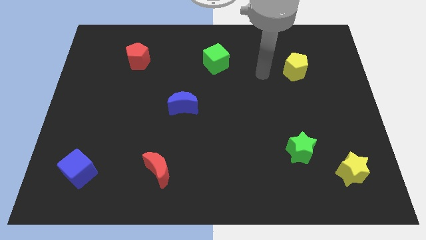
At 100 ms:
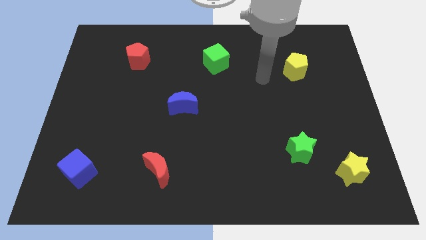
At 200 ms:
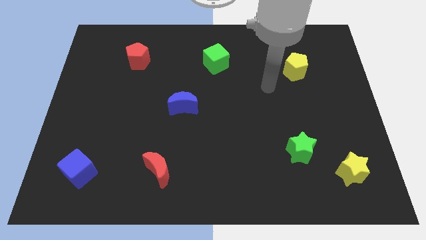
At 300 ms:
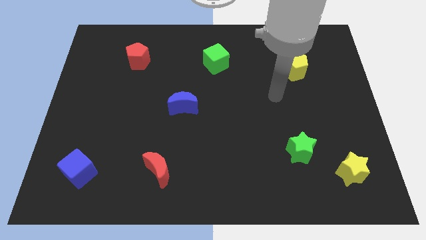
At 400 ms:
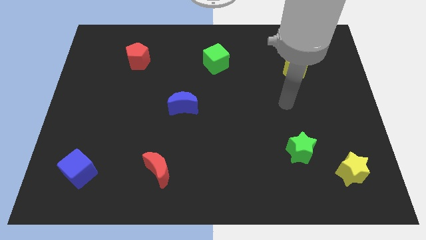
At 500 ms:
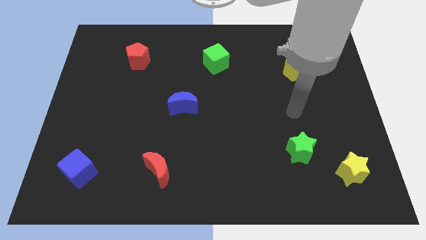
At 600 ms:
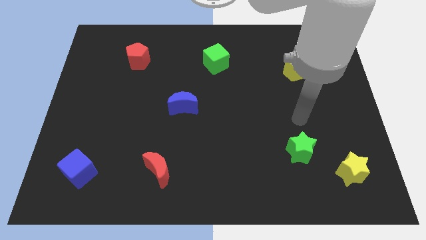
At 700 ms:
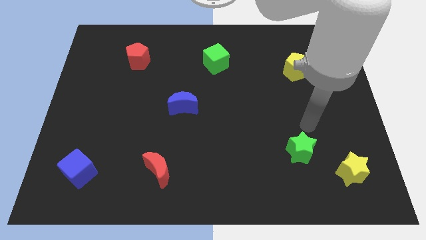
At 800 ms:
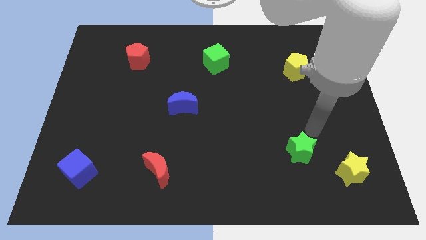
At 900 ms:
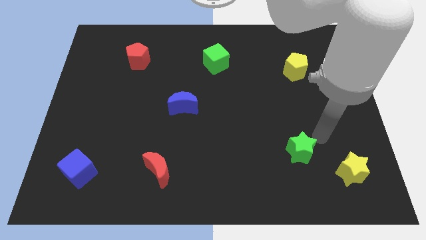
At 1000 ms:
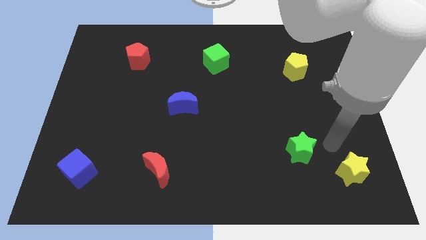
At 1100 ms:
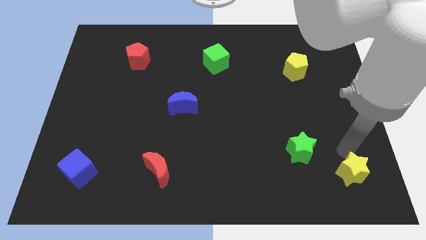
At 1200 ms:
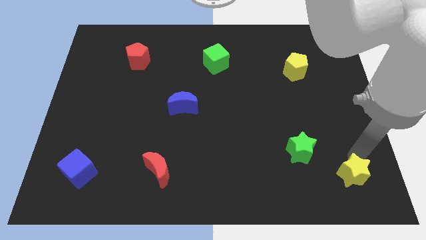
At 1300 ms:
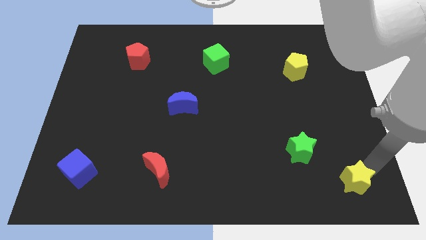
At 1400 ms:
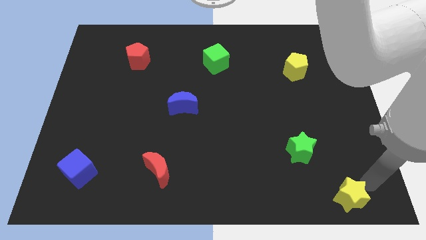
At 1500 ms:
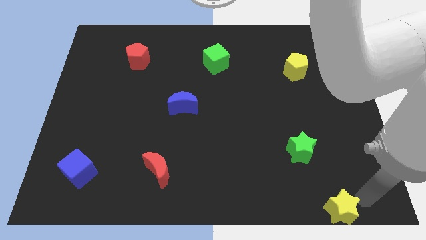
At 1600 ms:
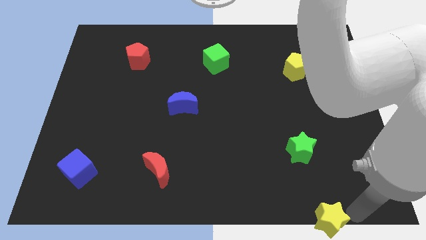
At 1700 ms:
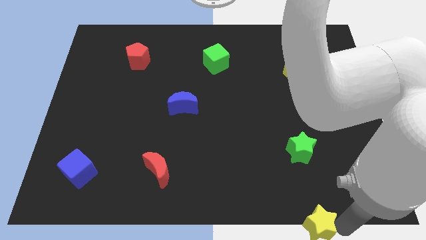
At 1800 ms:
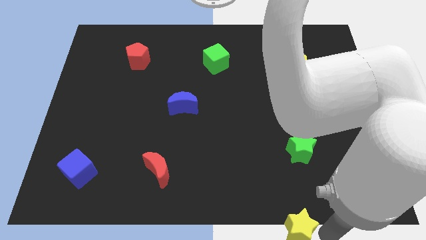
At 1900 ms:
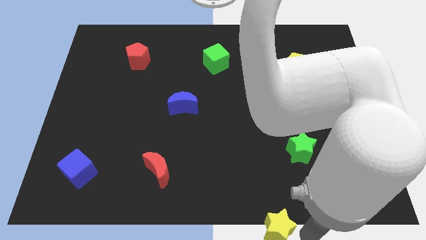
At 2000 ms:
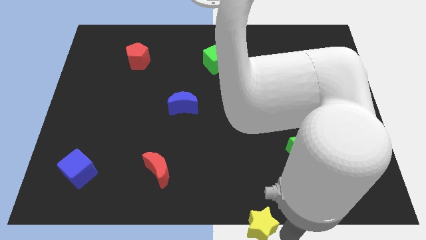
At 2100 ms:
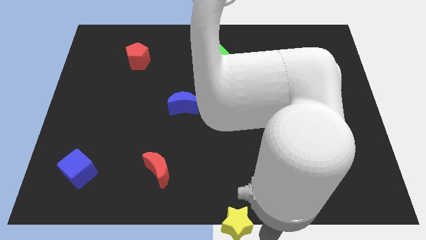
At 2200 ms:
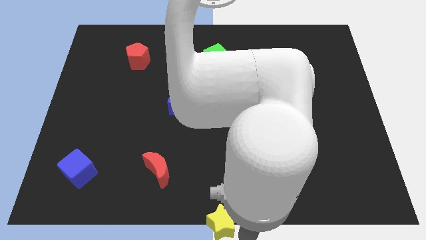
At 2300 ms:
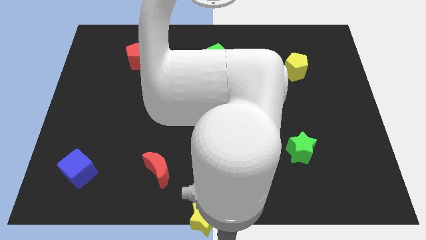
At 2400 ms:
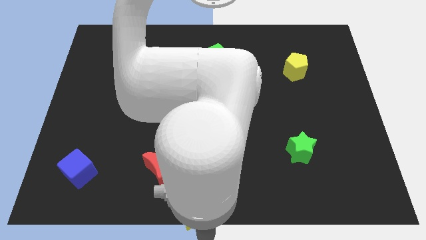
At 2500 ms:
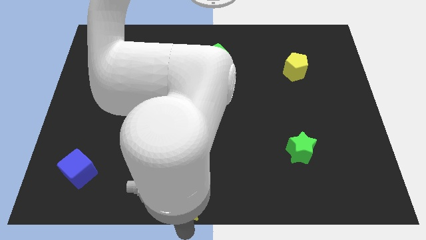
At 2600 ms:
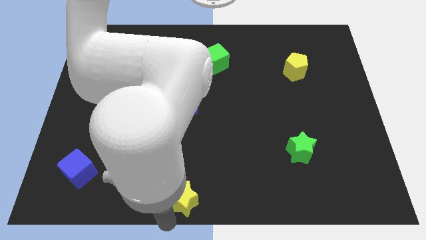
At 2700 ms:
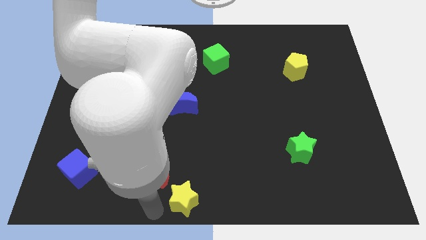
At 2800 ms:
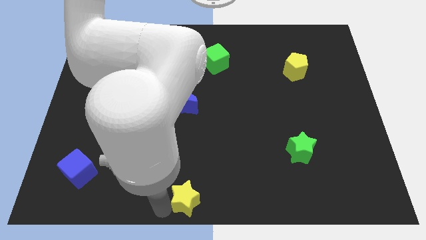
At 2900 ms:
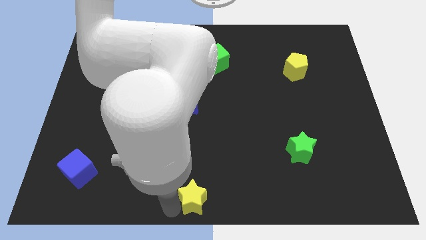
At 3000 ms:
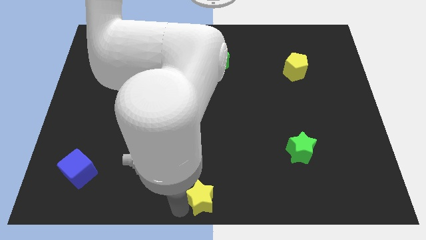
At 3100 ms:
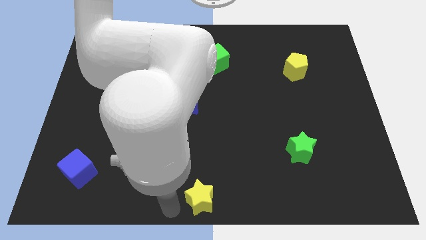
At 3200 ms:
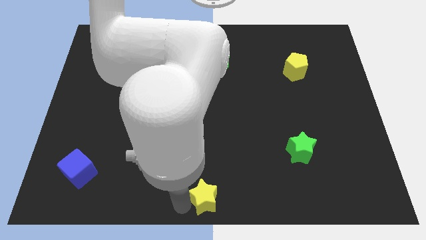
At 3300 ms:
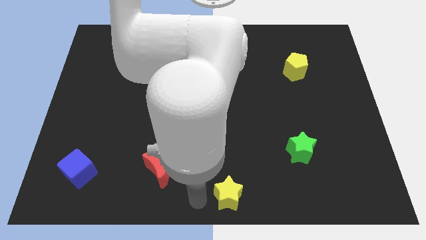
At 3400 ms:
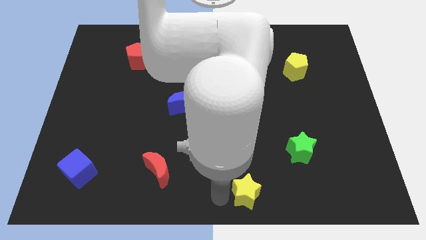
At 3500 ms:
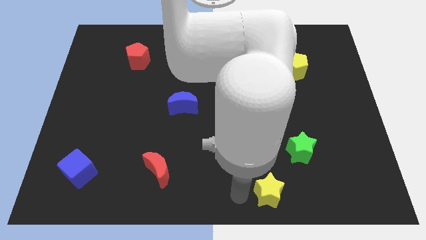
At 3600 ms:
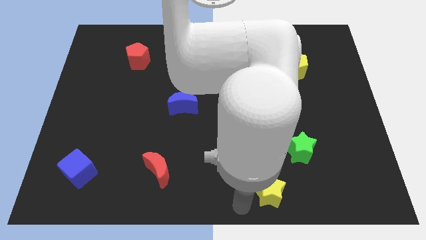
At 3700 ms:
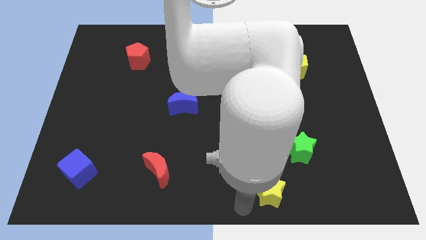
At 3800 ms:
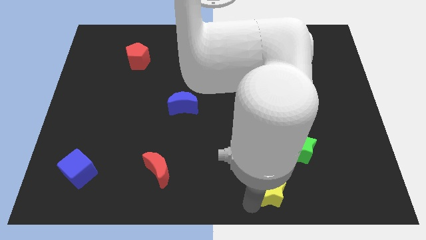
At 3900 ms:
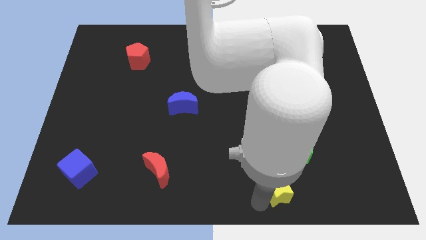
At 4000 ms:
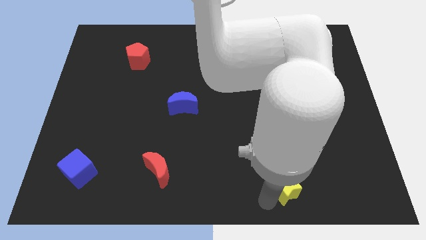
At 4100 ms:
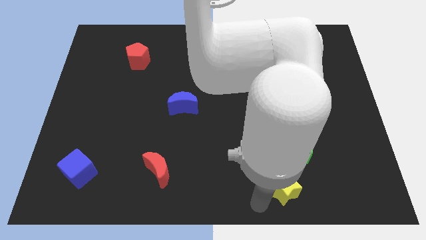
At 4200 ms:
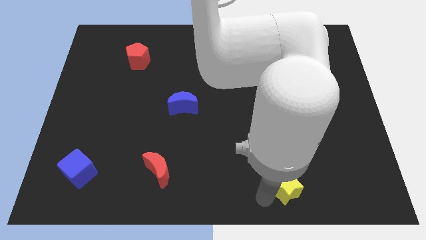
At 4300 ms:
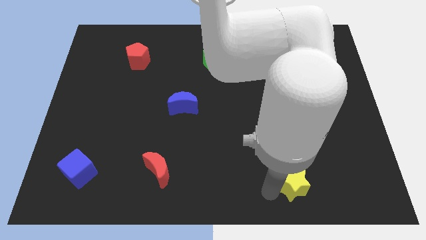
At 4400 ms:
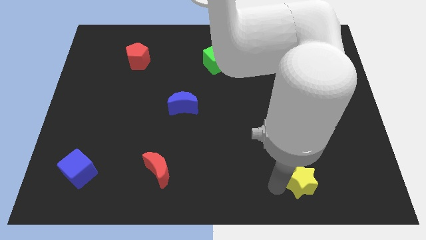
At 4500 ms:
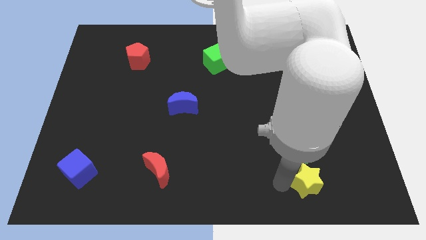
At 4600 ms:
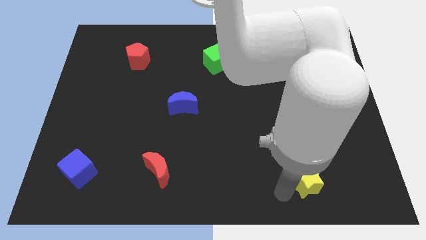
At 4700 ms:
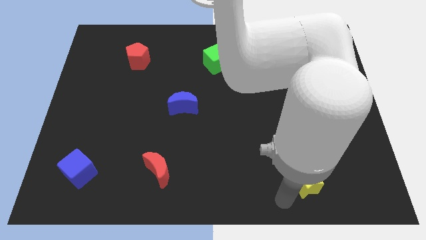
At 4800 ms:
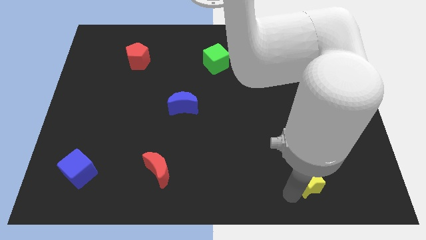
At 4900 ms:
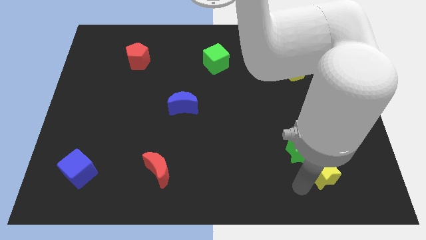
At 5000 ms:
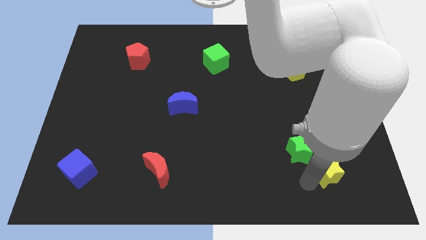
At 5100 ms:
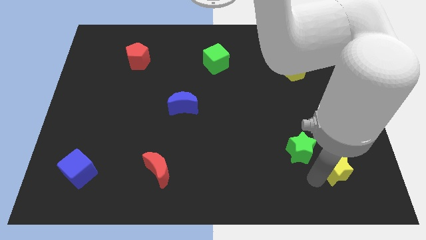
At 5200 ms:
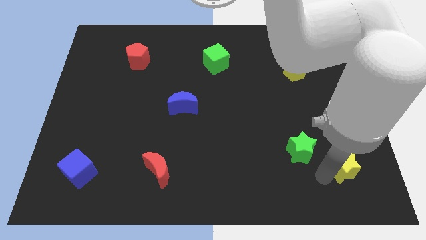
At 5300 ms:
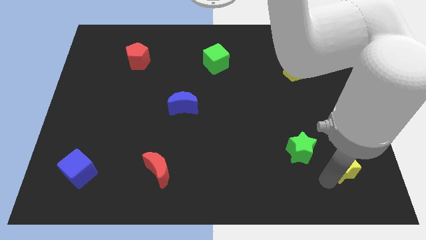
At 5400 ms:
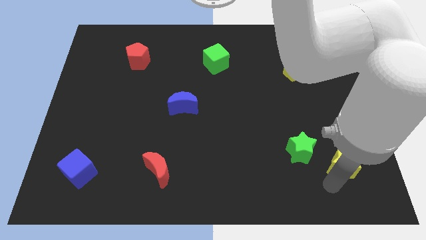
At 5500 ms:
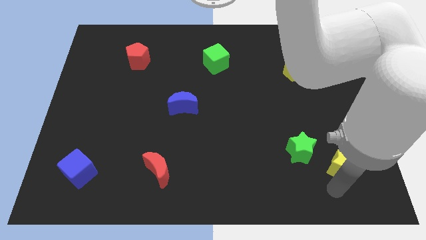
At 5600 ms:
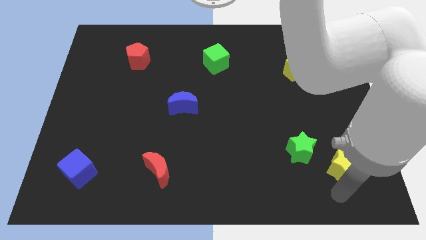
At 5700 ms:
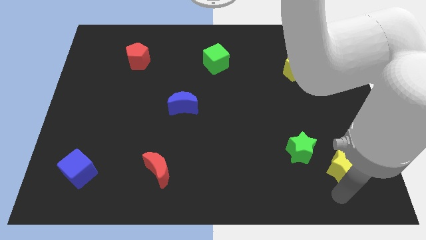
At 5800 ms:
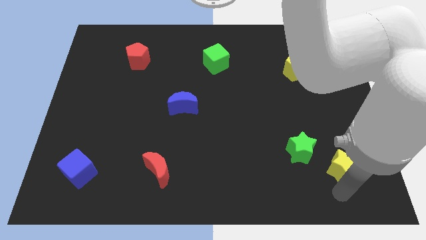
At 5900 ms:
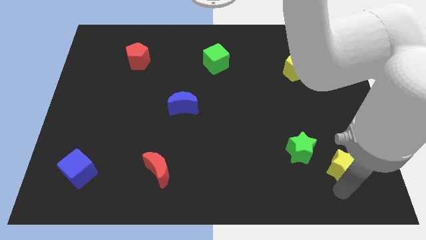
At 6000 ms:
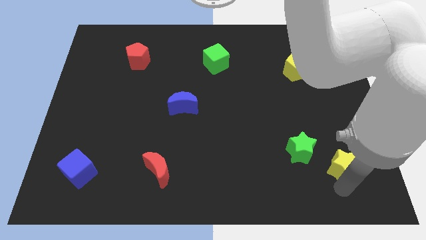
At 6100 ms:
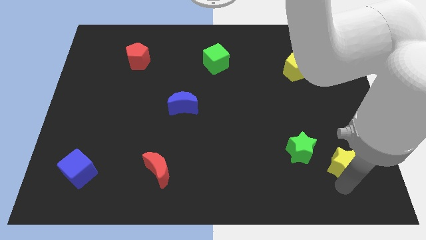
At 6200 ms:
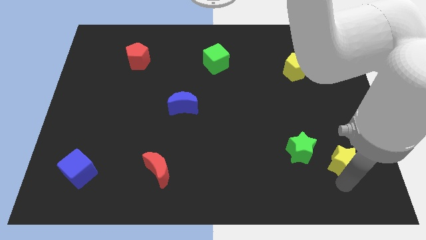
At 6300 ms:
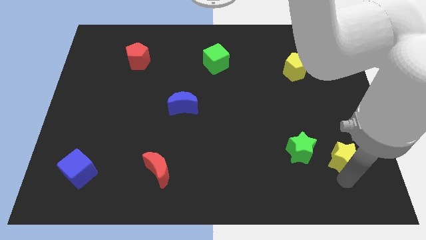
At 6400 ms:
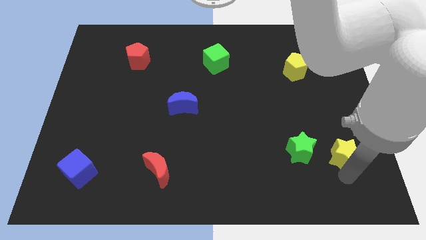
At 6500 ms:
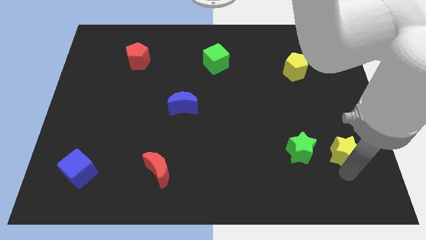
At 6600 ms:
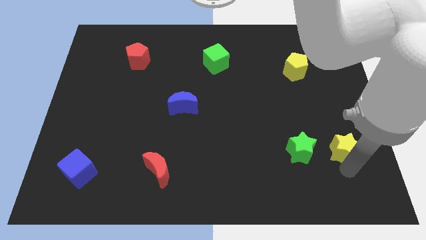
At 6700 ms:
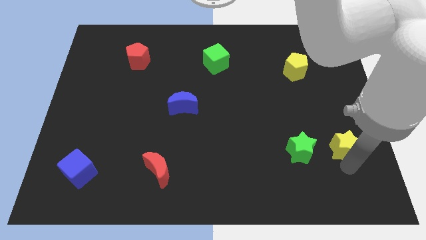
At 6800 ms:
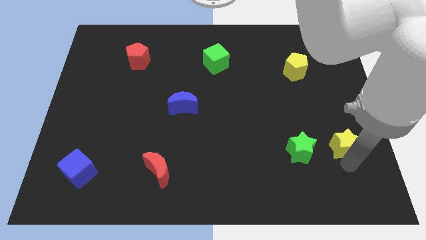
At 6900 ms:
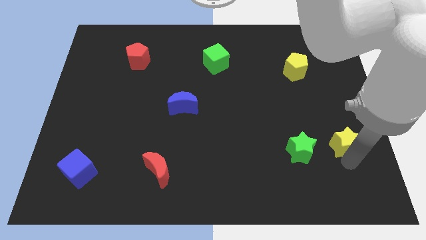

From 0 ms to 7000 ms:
move the yellow star slightly upwards

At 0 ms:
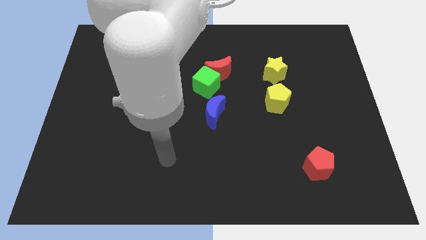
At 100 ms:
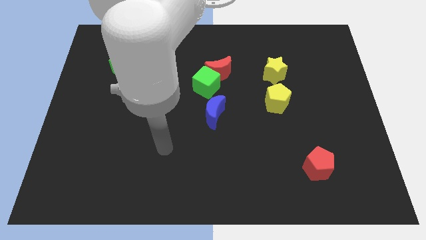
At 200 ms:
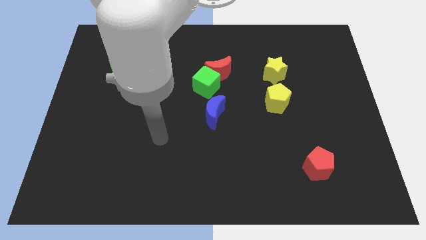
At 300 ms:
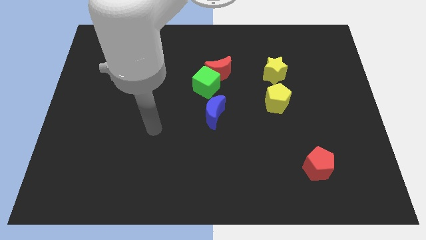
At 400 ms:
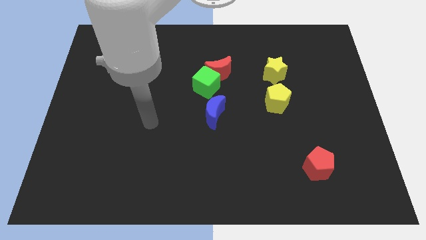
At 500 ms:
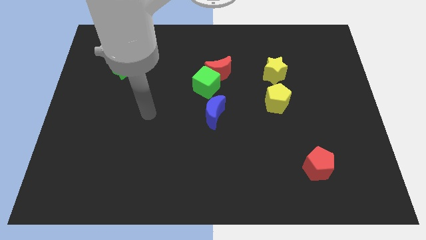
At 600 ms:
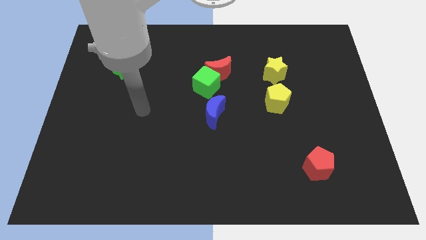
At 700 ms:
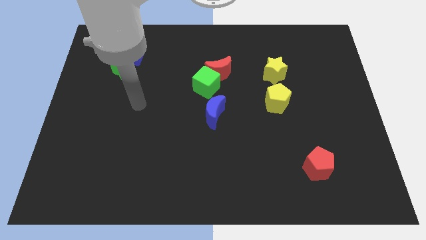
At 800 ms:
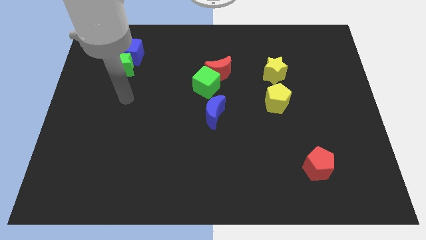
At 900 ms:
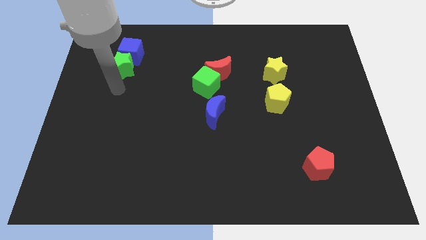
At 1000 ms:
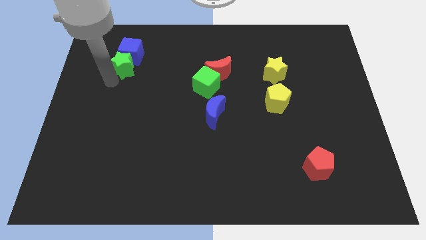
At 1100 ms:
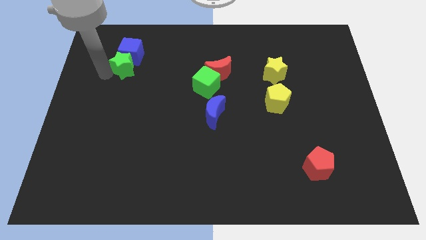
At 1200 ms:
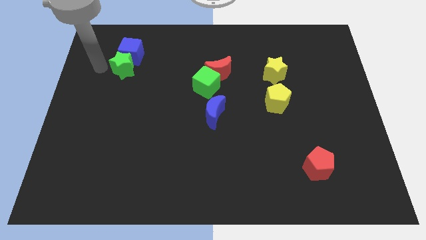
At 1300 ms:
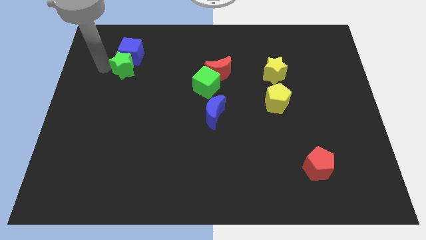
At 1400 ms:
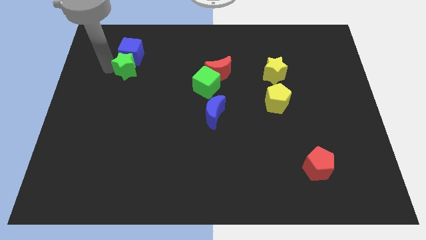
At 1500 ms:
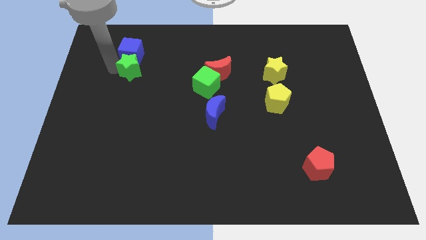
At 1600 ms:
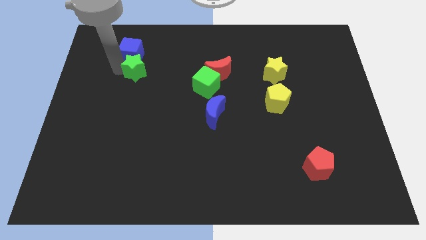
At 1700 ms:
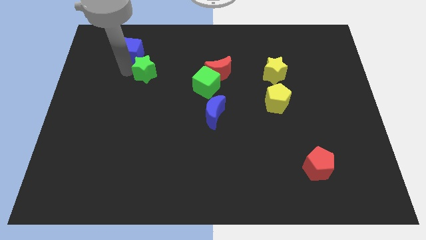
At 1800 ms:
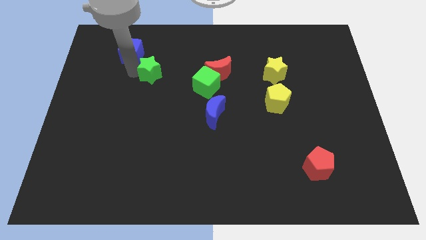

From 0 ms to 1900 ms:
slide the green star somewhat right
